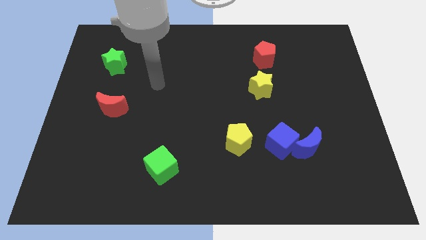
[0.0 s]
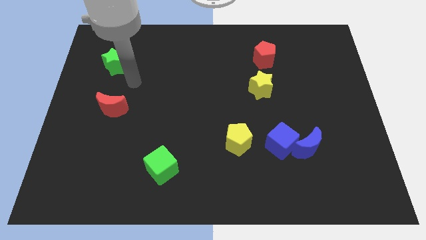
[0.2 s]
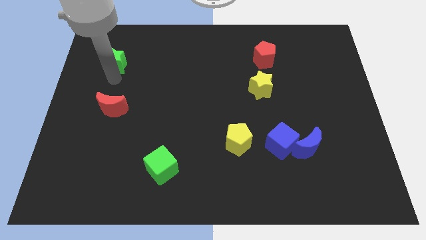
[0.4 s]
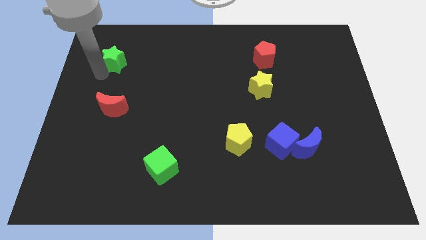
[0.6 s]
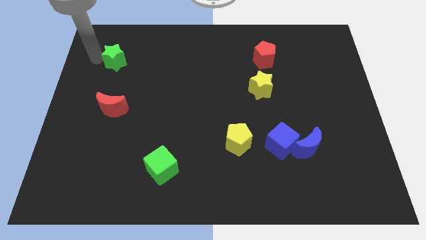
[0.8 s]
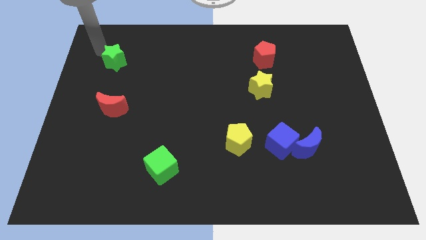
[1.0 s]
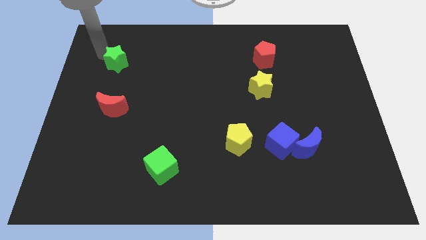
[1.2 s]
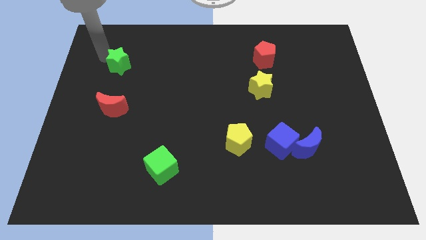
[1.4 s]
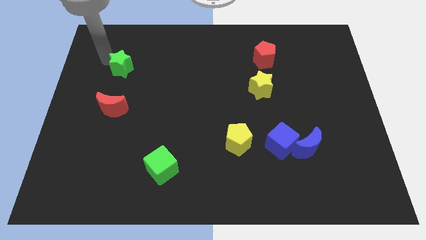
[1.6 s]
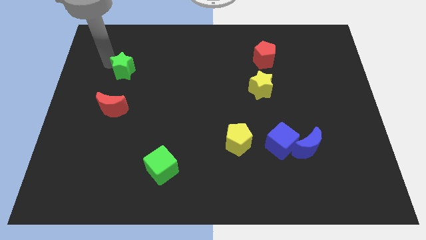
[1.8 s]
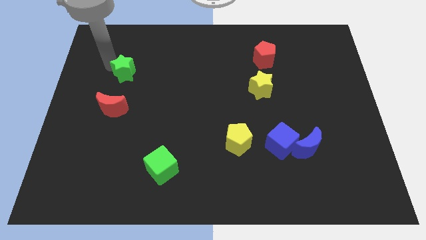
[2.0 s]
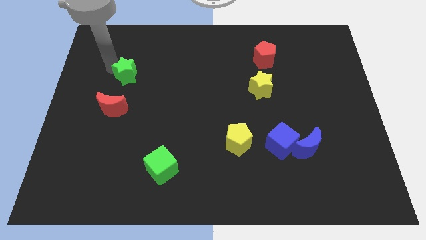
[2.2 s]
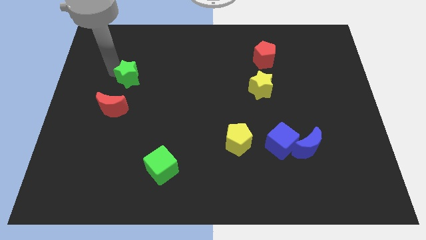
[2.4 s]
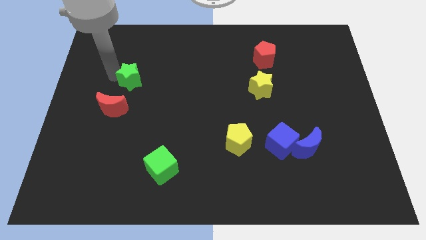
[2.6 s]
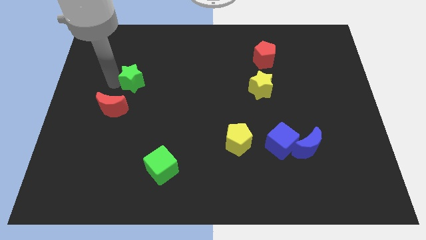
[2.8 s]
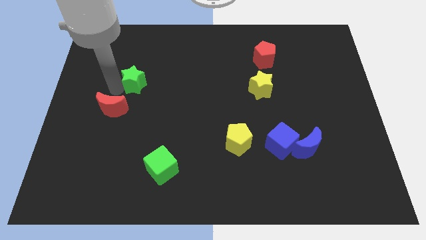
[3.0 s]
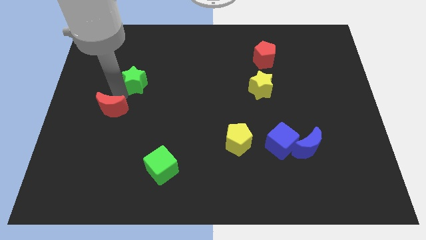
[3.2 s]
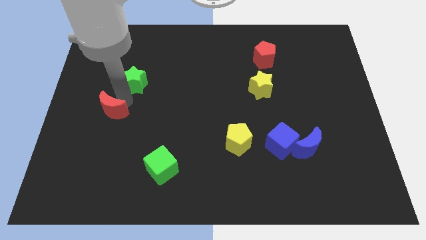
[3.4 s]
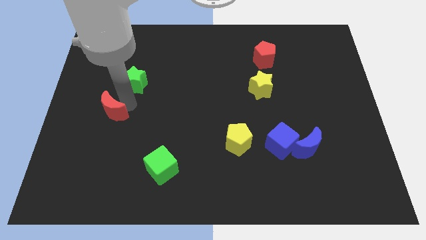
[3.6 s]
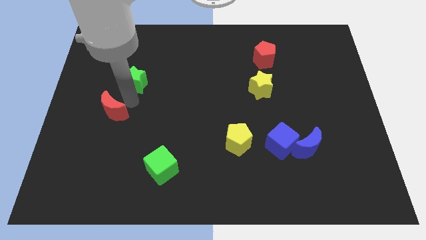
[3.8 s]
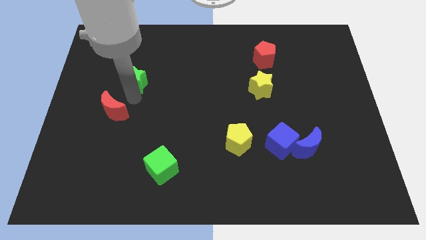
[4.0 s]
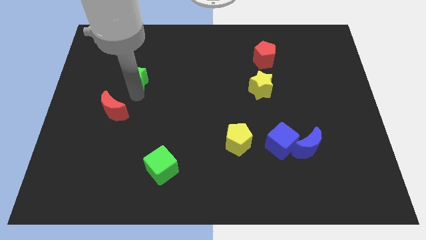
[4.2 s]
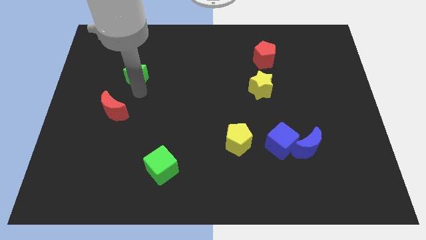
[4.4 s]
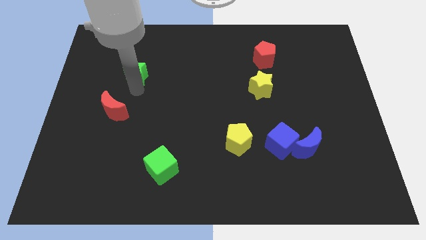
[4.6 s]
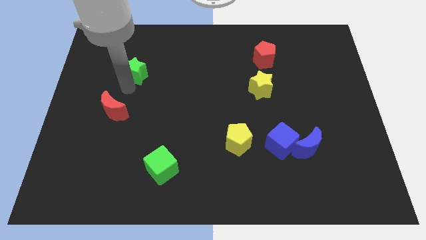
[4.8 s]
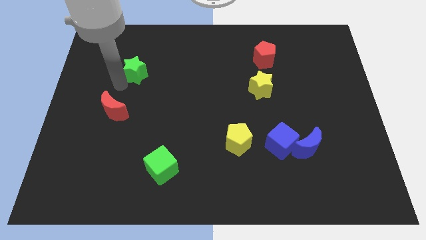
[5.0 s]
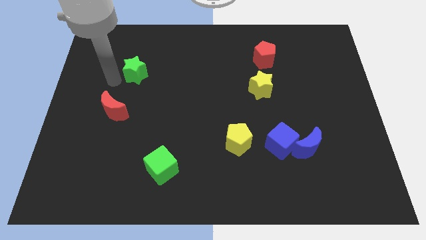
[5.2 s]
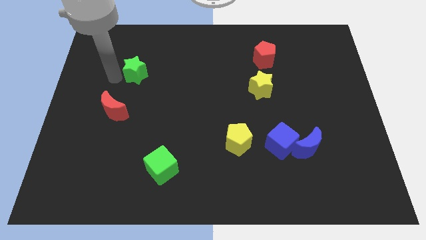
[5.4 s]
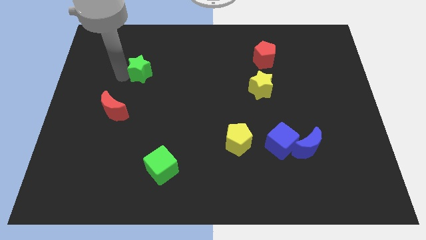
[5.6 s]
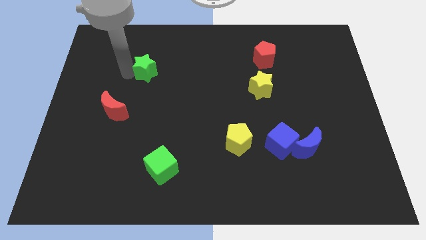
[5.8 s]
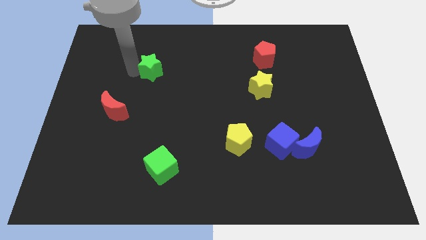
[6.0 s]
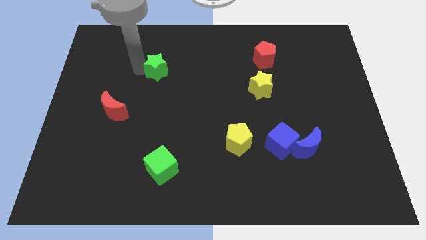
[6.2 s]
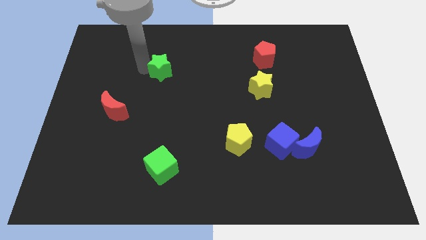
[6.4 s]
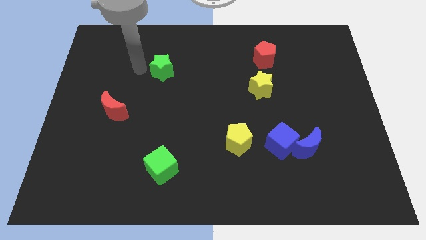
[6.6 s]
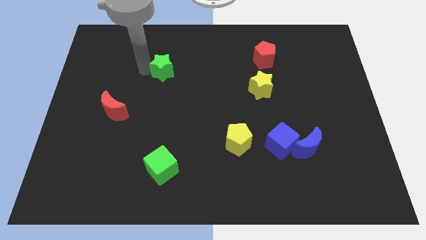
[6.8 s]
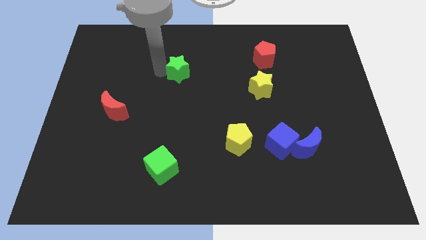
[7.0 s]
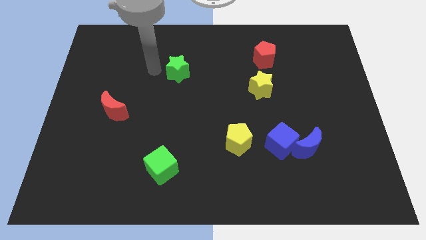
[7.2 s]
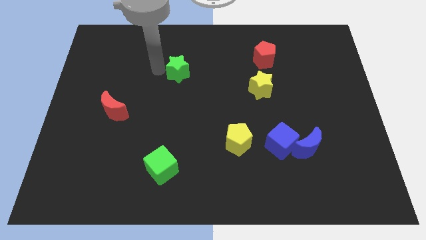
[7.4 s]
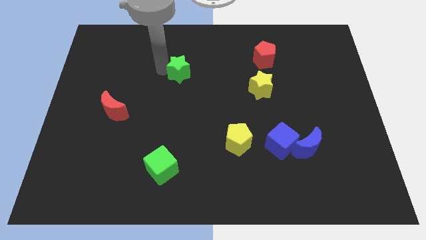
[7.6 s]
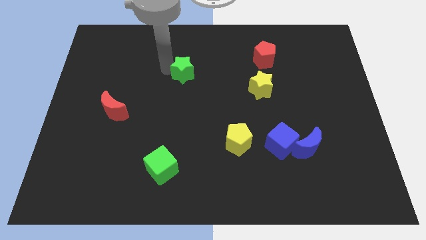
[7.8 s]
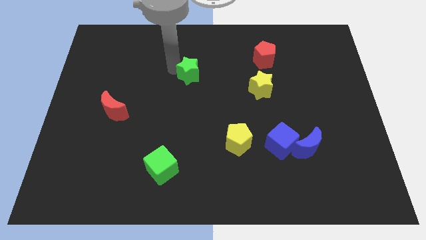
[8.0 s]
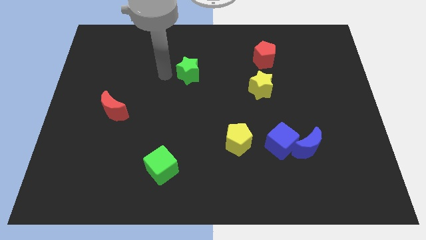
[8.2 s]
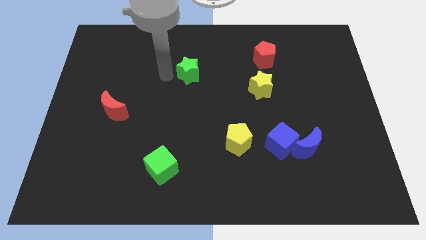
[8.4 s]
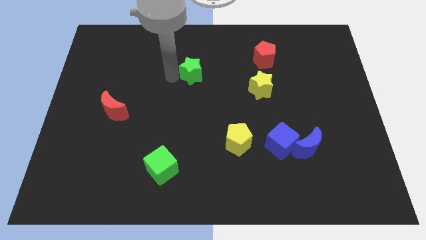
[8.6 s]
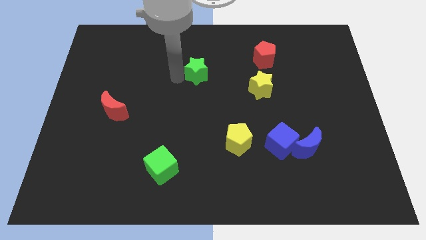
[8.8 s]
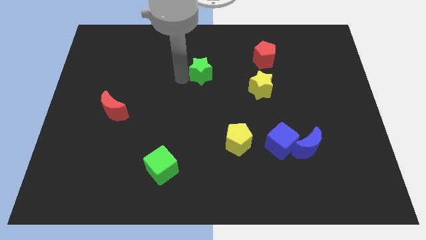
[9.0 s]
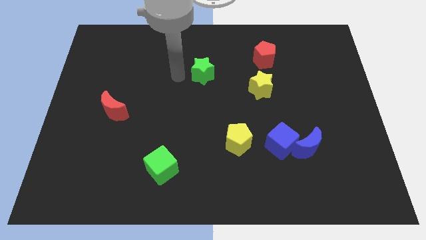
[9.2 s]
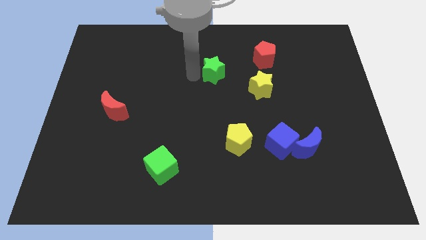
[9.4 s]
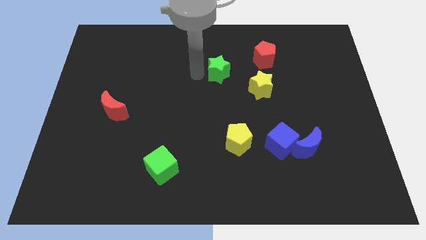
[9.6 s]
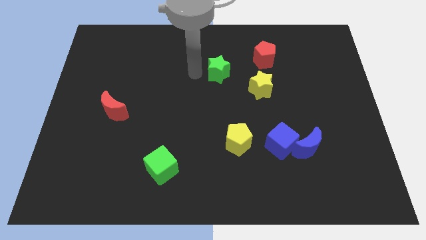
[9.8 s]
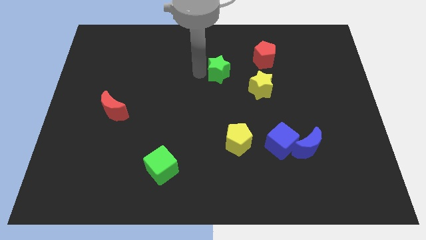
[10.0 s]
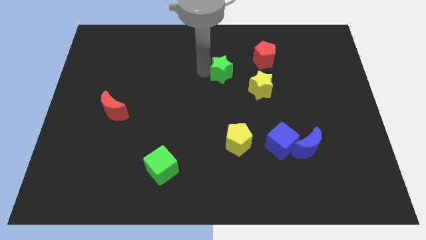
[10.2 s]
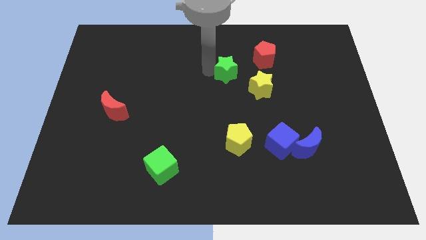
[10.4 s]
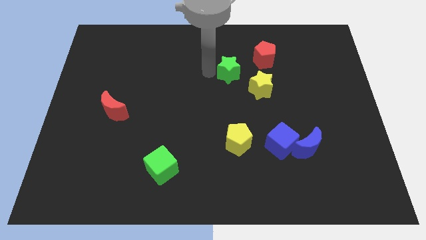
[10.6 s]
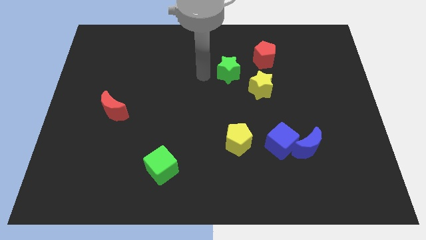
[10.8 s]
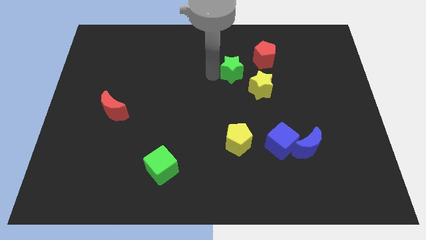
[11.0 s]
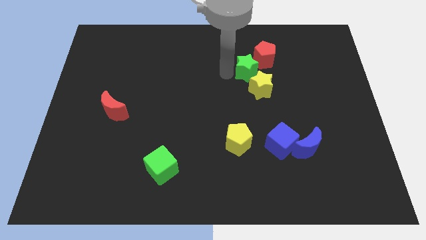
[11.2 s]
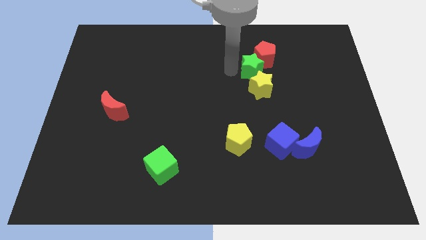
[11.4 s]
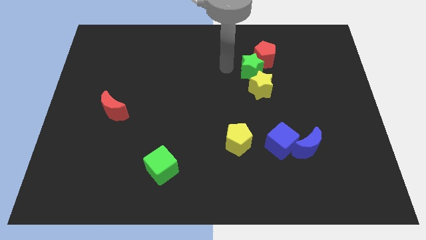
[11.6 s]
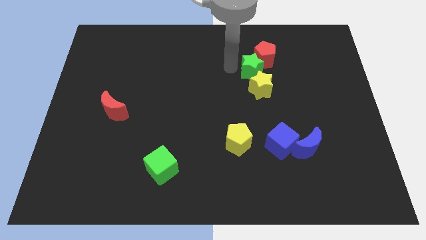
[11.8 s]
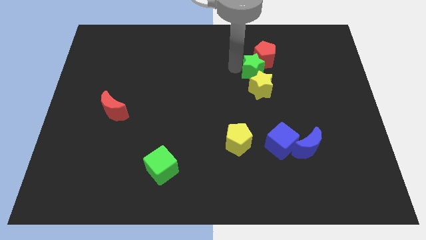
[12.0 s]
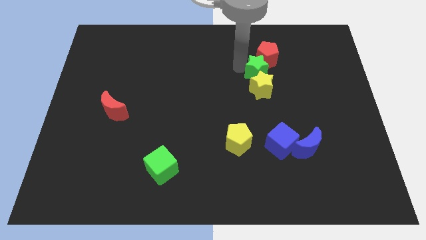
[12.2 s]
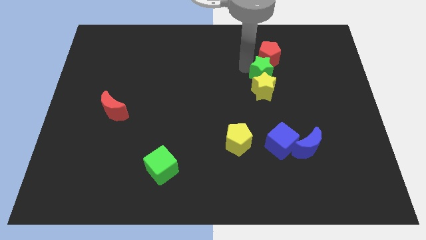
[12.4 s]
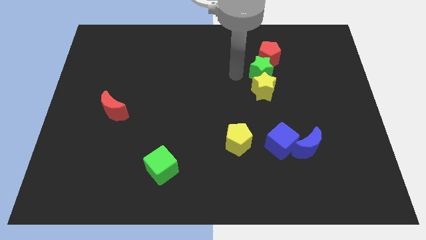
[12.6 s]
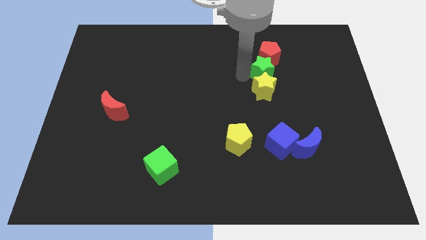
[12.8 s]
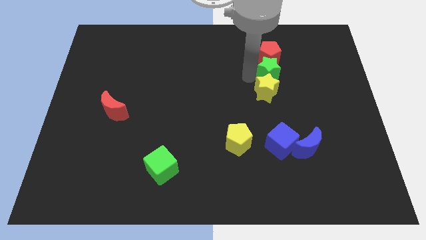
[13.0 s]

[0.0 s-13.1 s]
put the green star diagonally down and to the right of the red pentagon

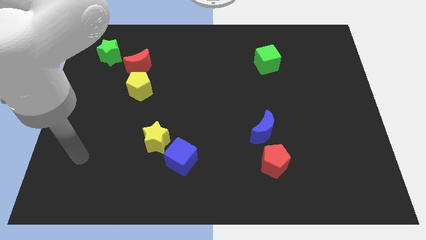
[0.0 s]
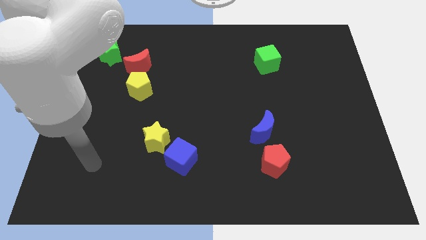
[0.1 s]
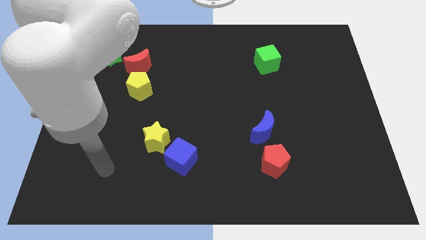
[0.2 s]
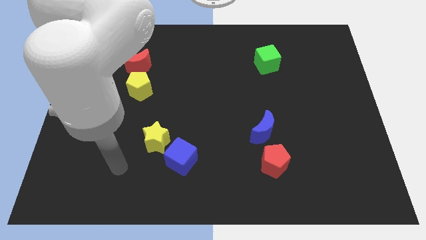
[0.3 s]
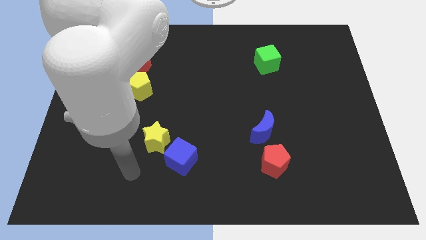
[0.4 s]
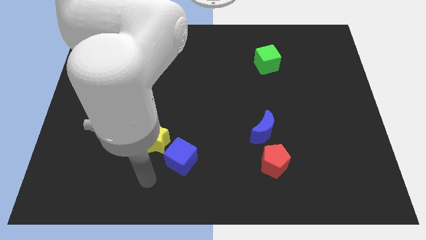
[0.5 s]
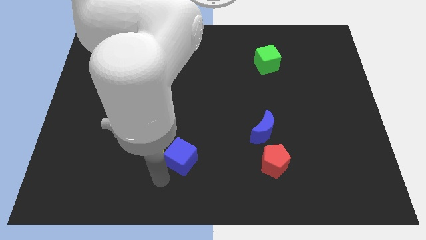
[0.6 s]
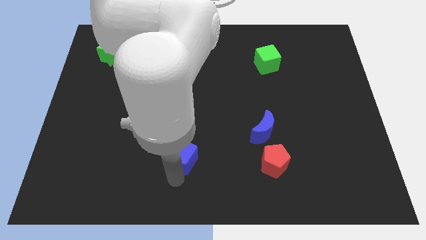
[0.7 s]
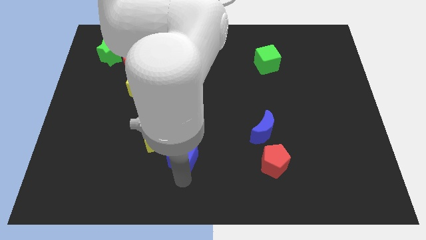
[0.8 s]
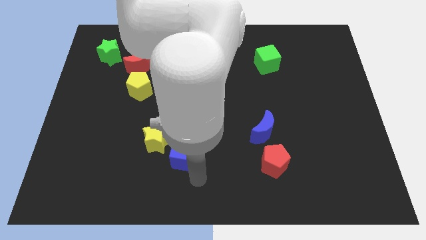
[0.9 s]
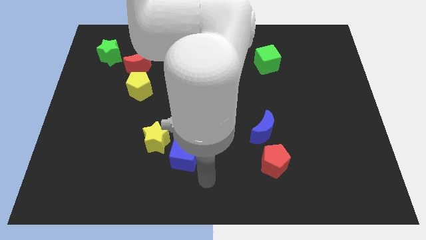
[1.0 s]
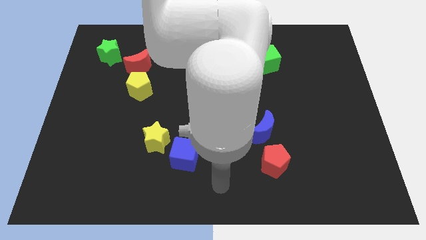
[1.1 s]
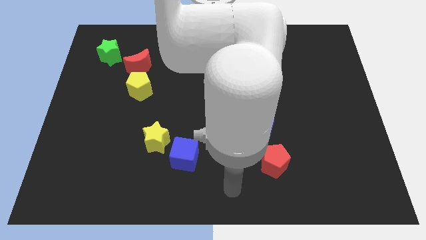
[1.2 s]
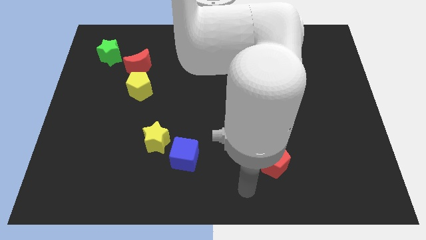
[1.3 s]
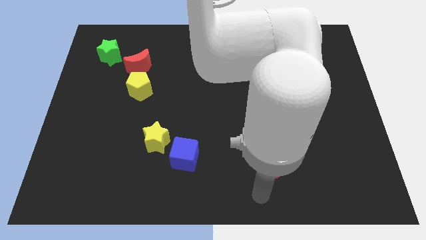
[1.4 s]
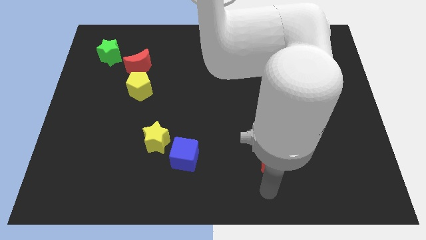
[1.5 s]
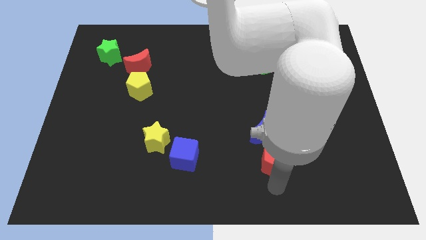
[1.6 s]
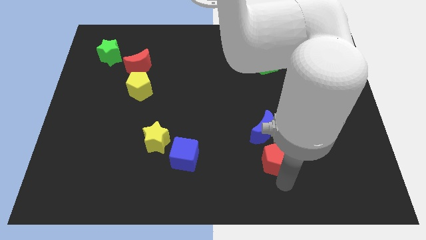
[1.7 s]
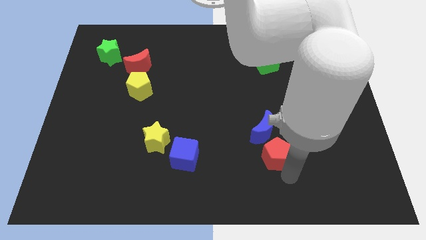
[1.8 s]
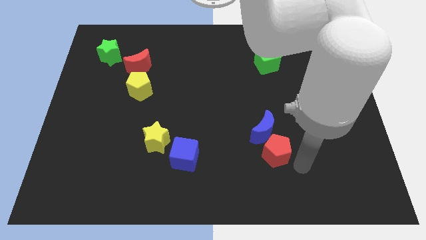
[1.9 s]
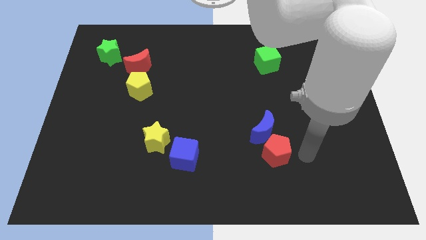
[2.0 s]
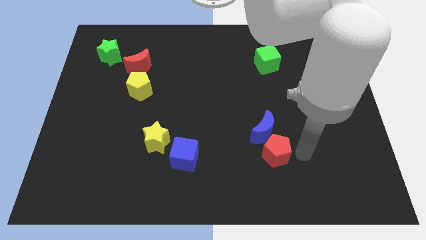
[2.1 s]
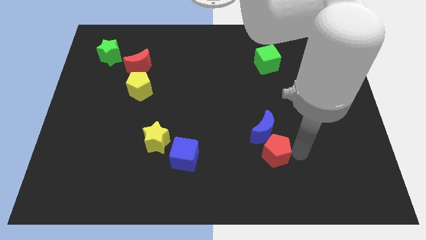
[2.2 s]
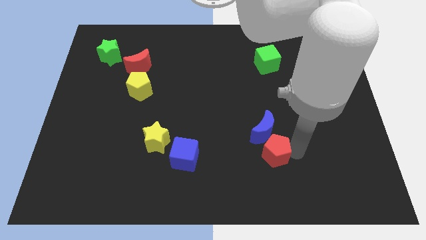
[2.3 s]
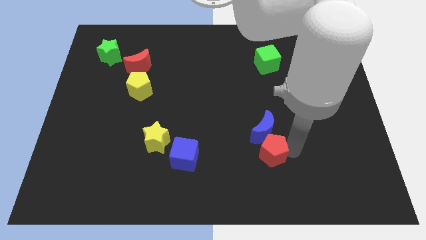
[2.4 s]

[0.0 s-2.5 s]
slide the red pentagon diagonally down and to the left of the blue moon
